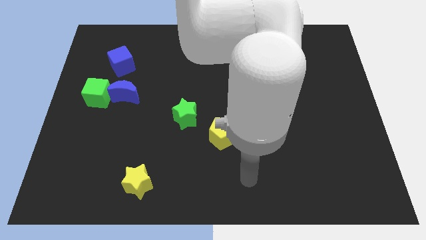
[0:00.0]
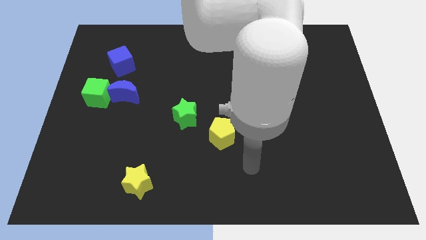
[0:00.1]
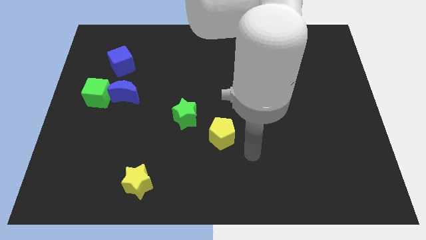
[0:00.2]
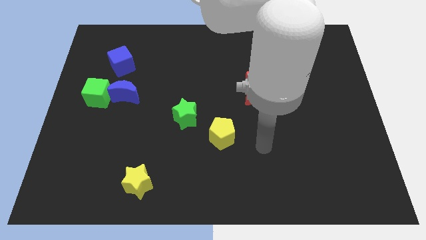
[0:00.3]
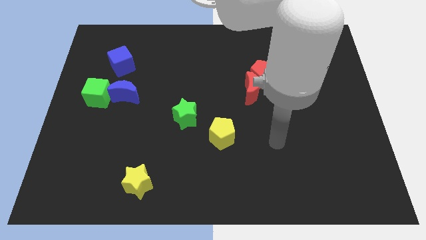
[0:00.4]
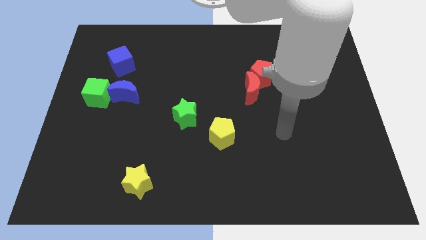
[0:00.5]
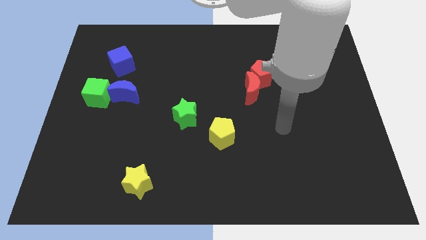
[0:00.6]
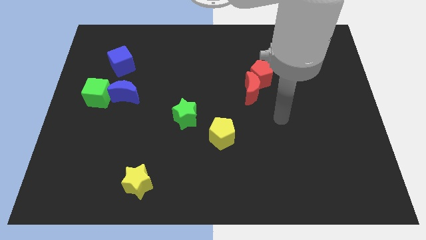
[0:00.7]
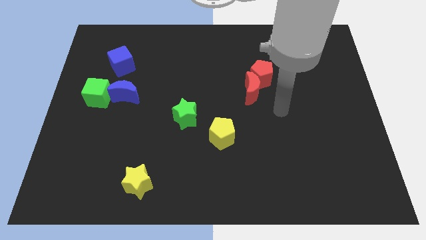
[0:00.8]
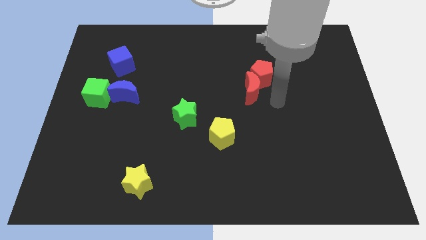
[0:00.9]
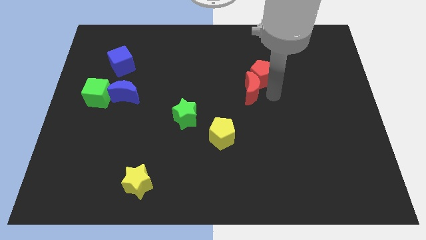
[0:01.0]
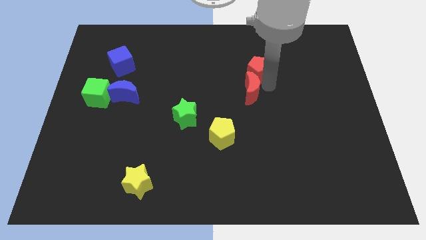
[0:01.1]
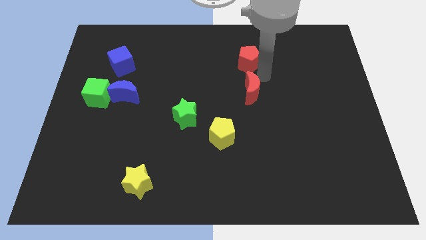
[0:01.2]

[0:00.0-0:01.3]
separate the red moon from the red pentagon

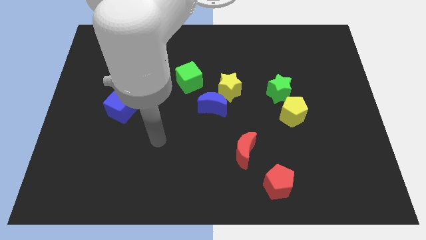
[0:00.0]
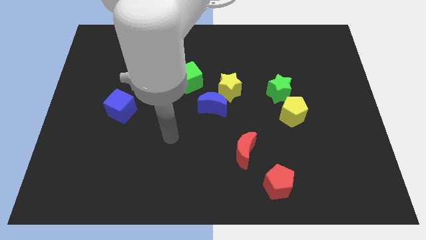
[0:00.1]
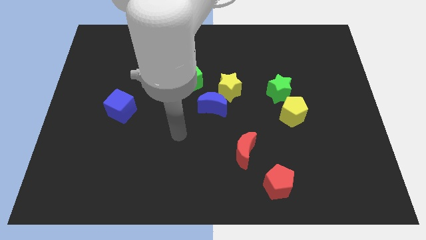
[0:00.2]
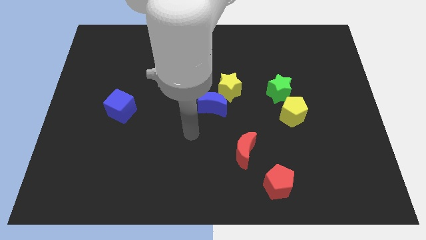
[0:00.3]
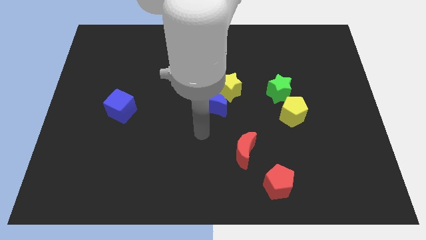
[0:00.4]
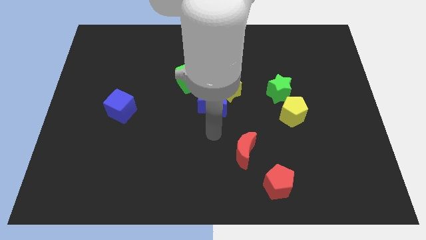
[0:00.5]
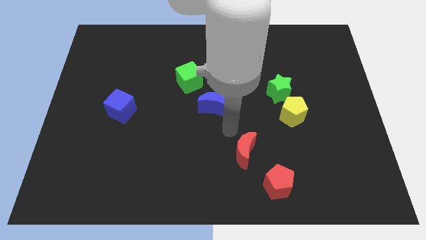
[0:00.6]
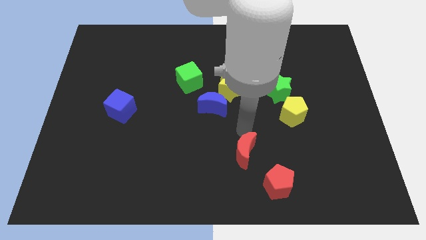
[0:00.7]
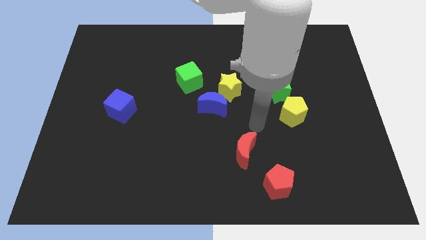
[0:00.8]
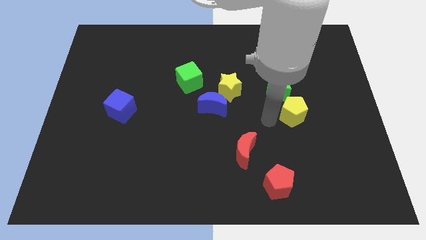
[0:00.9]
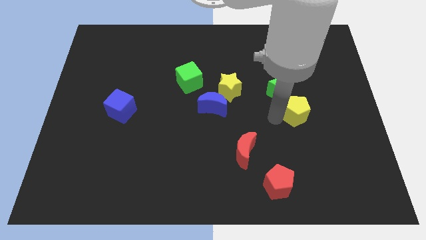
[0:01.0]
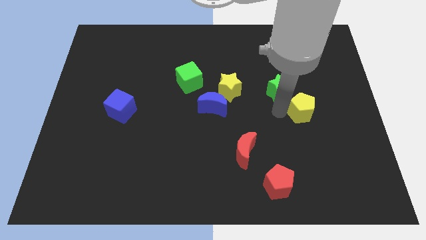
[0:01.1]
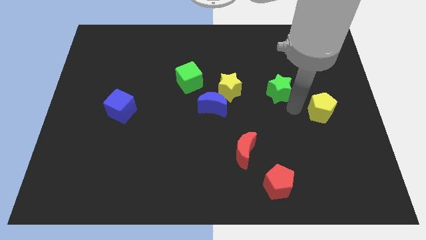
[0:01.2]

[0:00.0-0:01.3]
move the green star away from the yellow pentagon

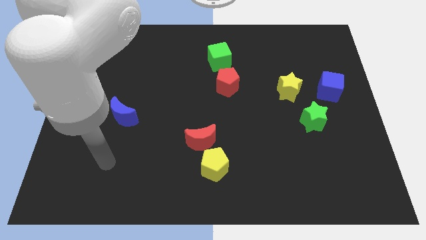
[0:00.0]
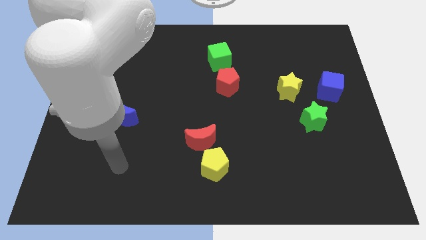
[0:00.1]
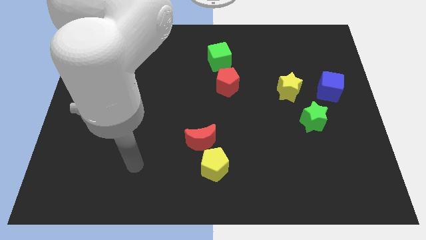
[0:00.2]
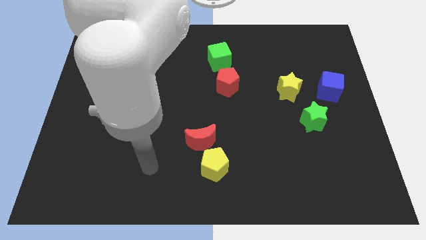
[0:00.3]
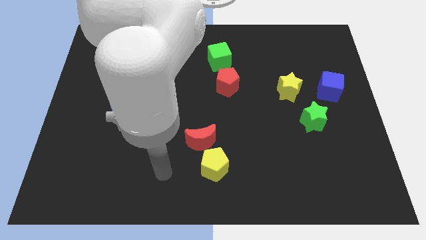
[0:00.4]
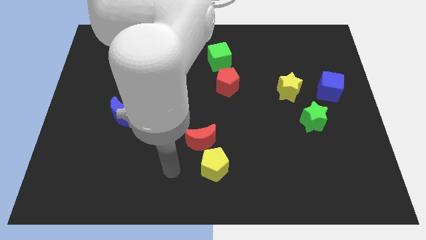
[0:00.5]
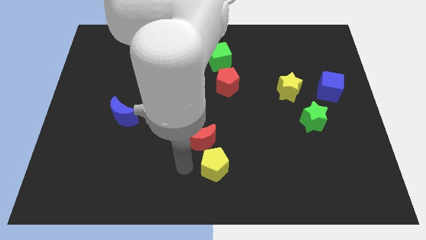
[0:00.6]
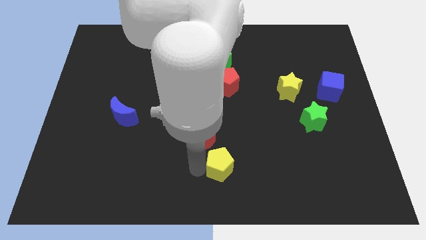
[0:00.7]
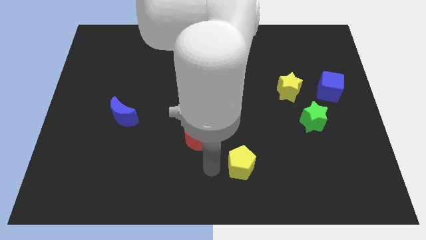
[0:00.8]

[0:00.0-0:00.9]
pull the red moon apart from the yellow pentagon

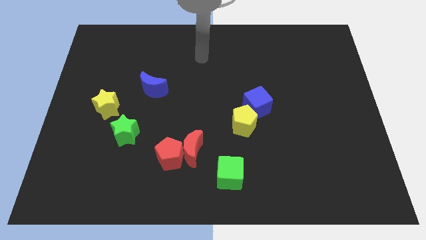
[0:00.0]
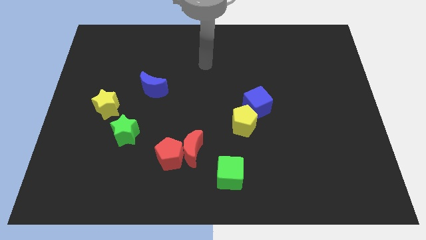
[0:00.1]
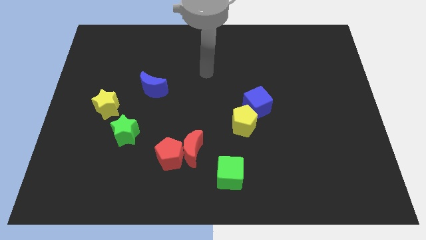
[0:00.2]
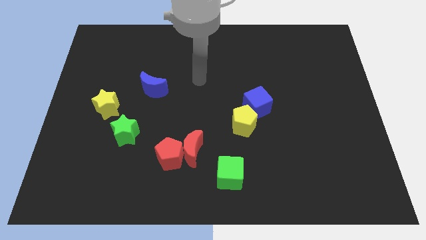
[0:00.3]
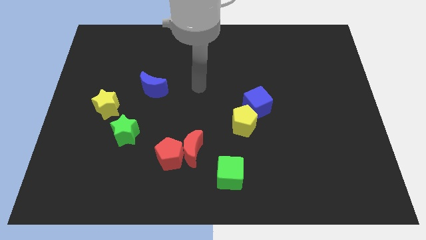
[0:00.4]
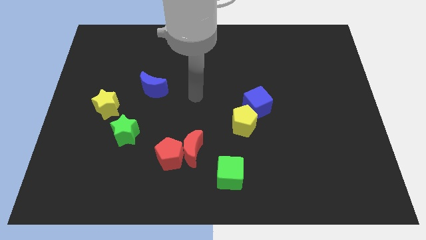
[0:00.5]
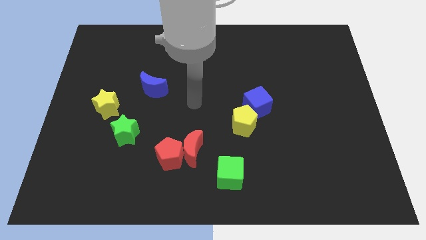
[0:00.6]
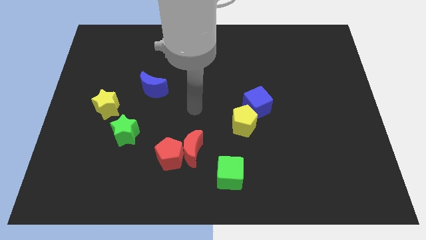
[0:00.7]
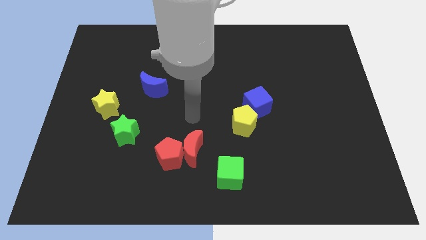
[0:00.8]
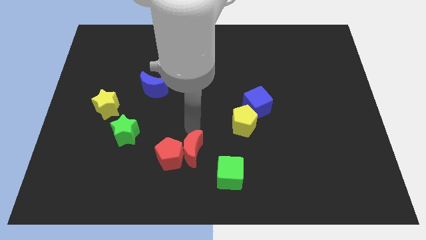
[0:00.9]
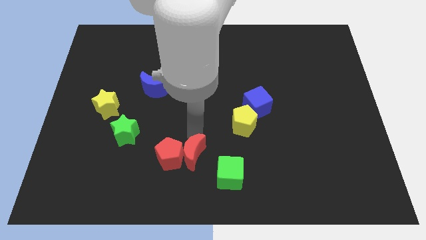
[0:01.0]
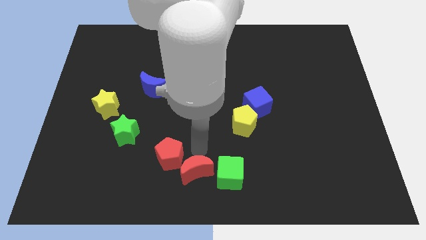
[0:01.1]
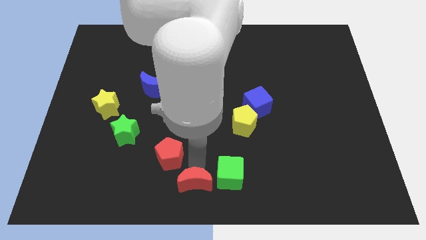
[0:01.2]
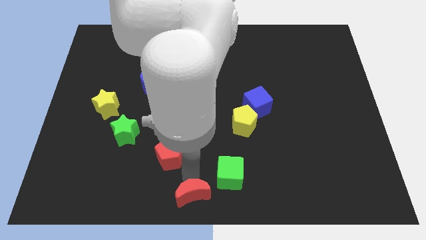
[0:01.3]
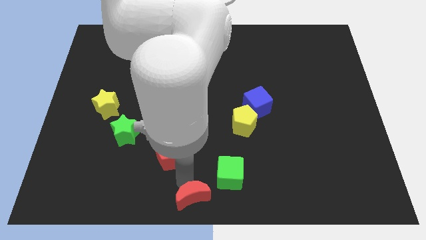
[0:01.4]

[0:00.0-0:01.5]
separate the red pentagon from the red moon

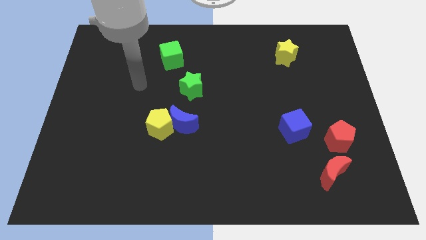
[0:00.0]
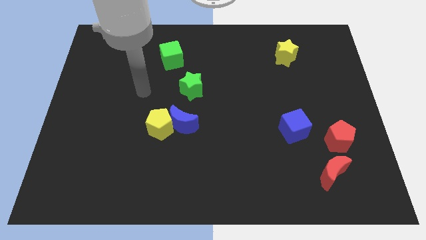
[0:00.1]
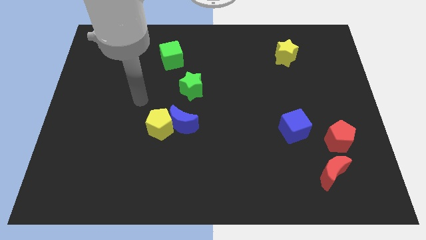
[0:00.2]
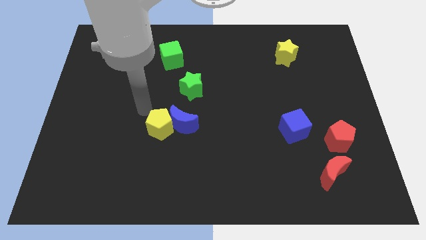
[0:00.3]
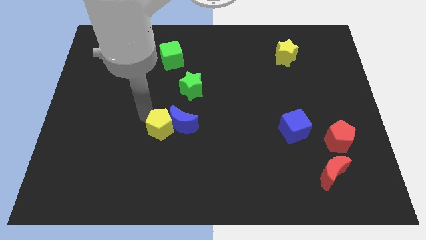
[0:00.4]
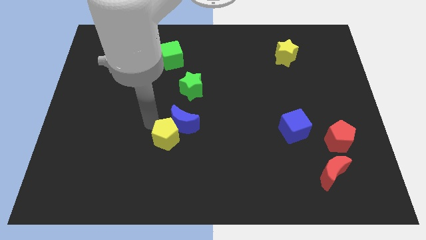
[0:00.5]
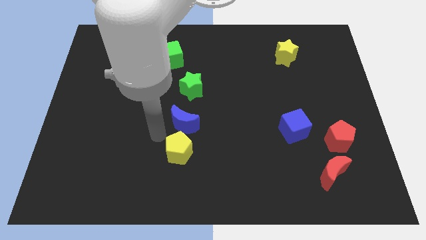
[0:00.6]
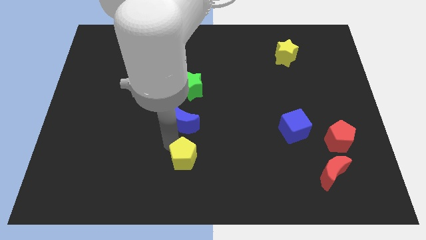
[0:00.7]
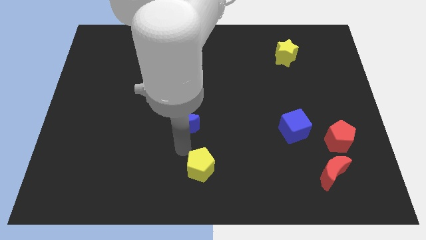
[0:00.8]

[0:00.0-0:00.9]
move the blue moon away from the yellow pentagon

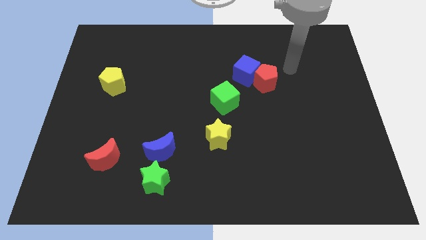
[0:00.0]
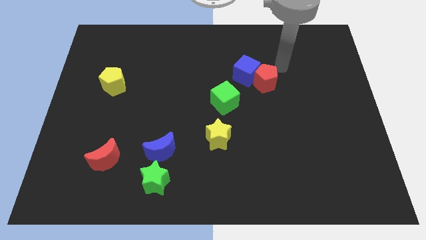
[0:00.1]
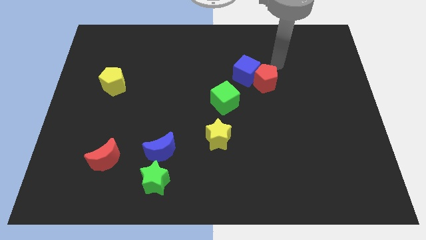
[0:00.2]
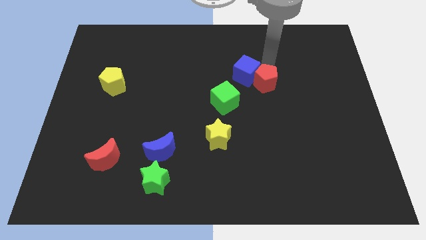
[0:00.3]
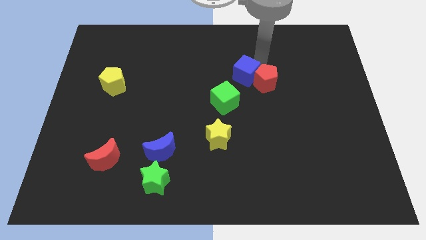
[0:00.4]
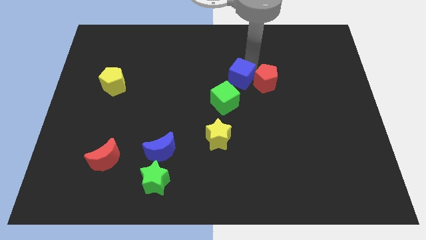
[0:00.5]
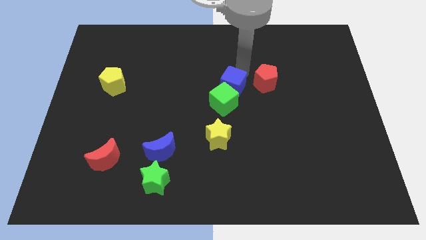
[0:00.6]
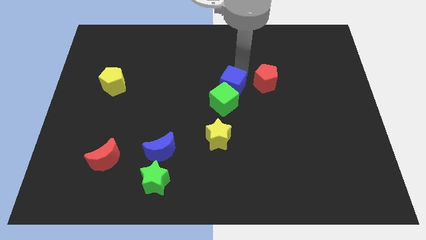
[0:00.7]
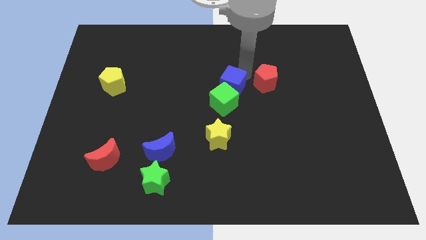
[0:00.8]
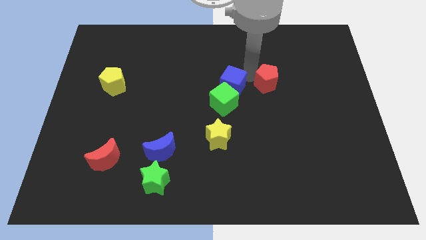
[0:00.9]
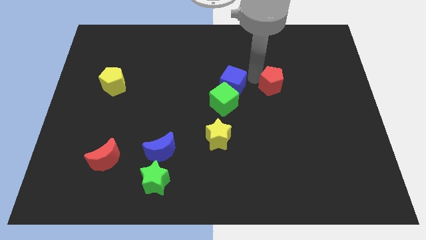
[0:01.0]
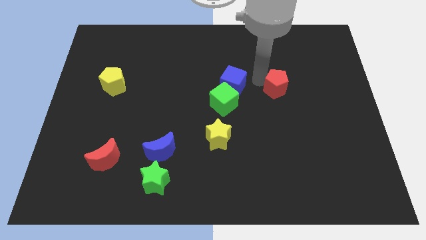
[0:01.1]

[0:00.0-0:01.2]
move the red pentagon away from the blue cube

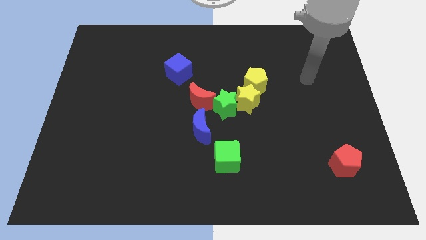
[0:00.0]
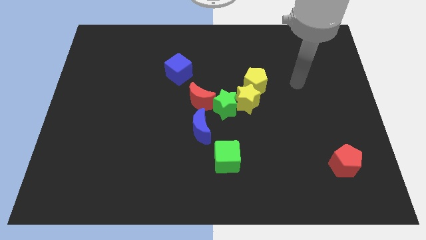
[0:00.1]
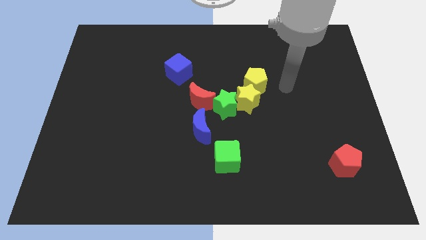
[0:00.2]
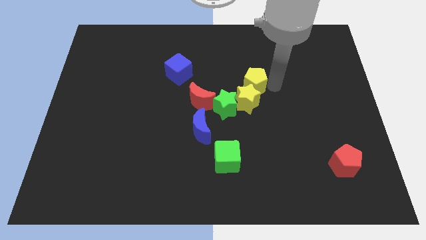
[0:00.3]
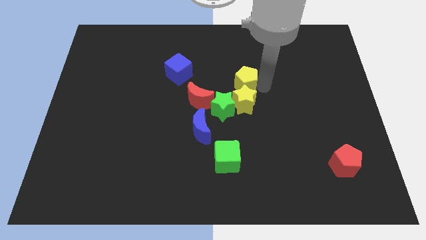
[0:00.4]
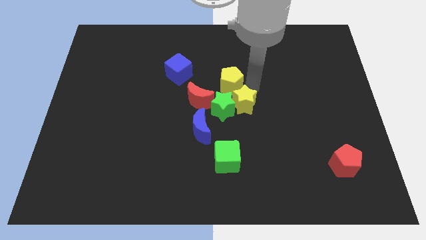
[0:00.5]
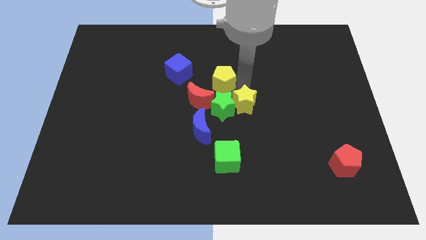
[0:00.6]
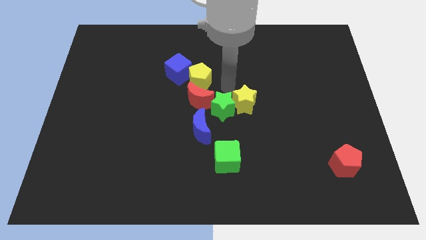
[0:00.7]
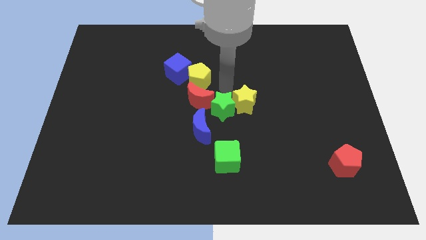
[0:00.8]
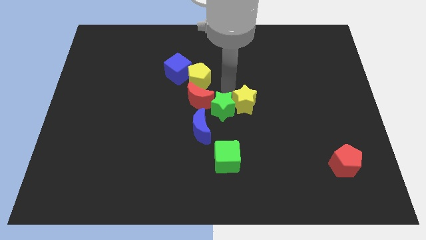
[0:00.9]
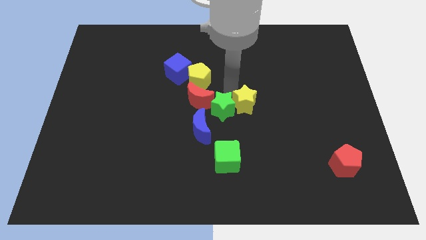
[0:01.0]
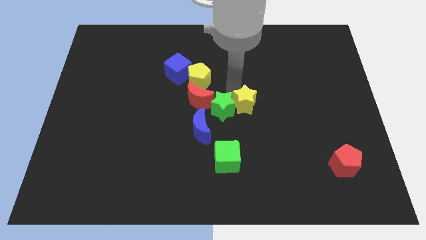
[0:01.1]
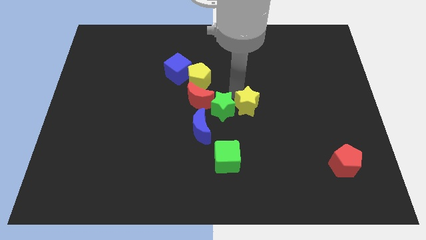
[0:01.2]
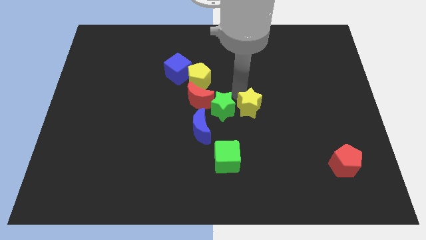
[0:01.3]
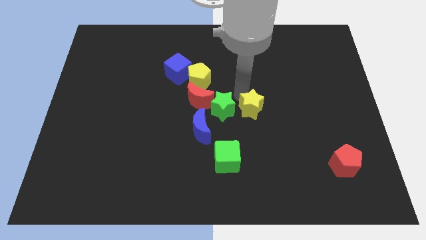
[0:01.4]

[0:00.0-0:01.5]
pull the yellow star apart from the green star and yellow pentagon

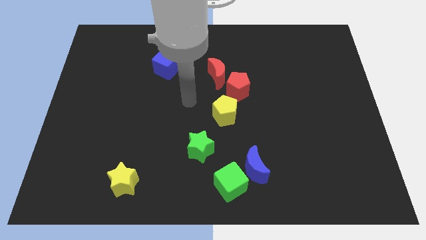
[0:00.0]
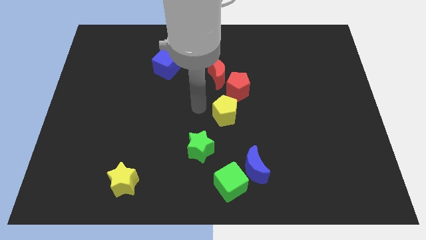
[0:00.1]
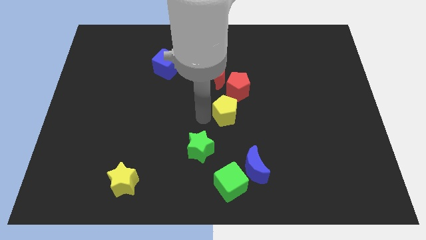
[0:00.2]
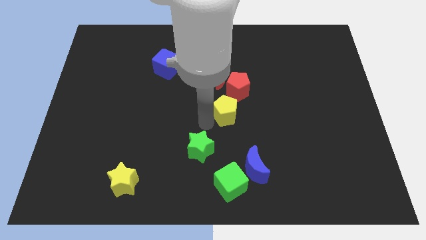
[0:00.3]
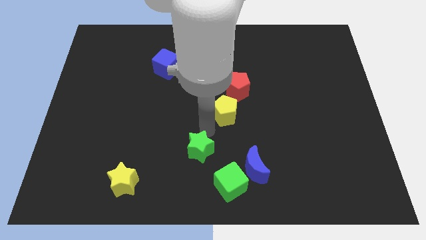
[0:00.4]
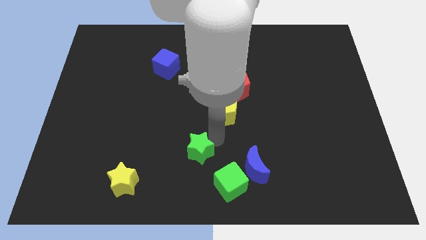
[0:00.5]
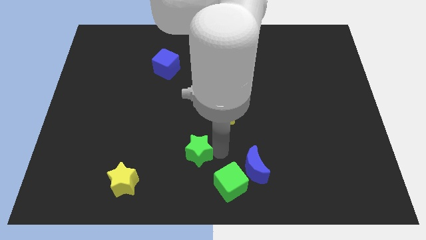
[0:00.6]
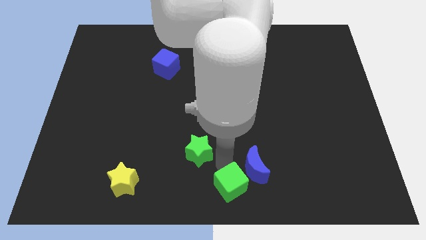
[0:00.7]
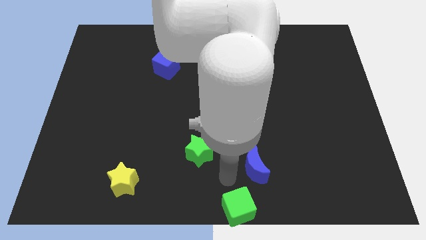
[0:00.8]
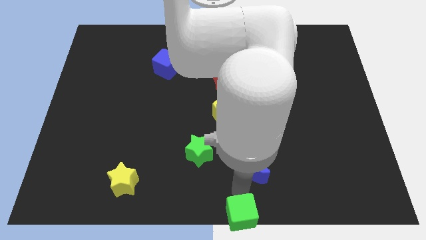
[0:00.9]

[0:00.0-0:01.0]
move the blue moon away from the green cube
